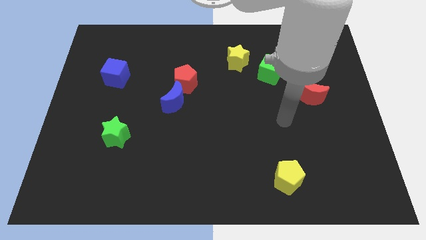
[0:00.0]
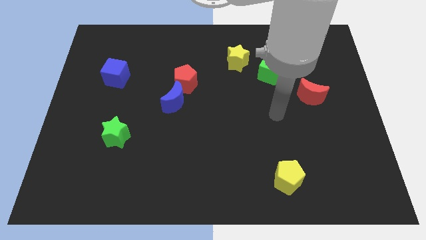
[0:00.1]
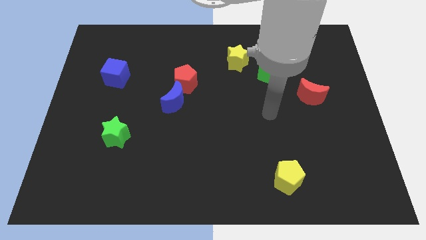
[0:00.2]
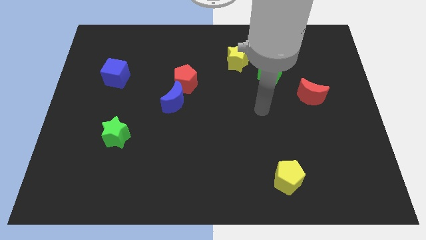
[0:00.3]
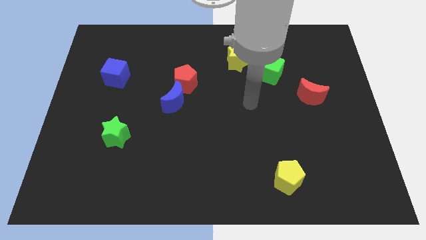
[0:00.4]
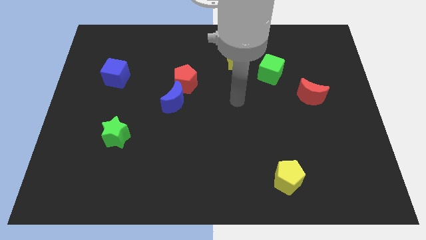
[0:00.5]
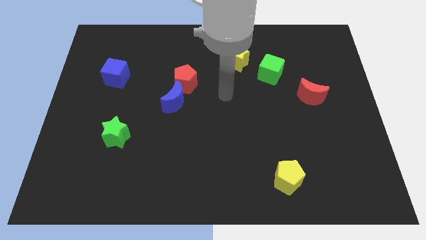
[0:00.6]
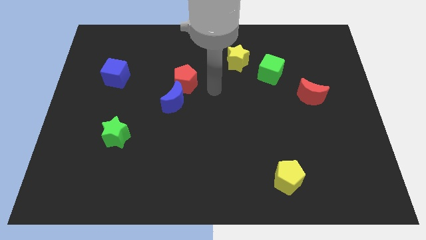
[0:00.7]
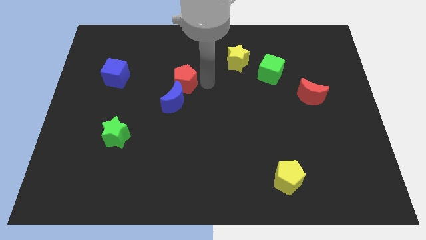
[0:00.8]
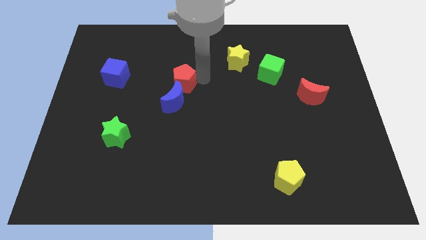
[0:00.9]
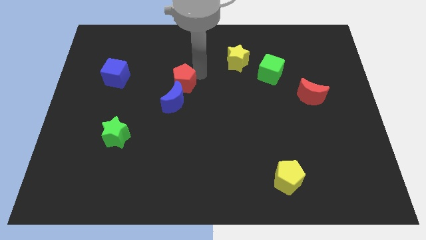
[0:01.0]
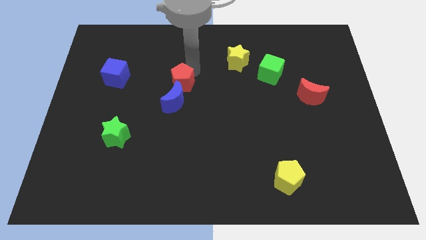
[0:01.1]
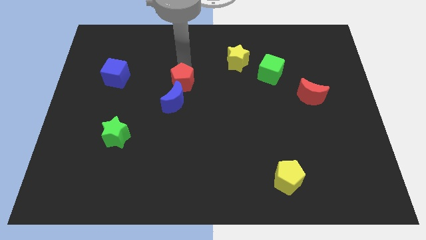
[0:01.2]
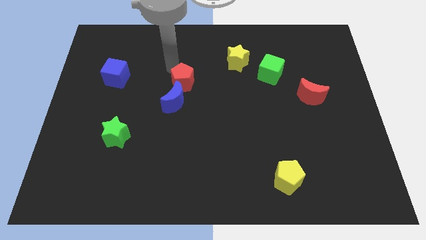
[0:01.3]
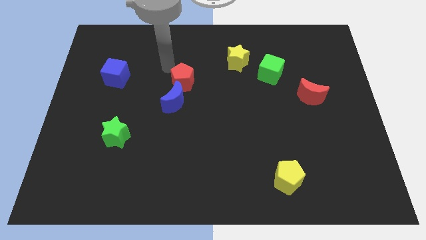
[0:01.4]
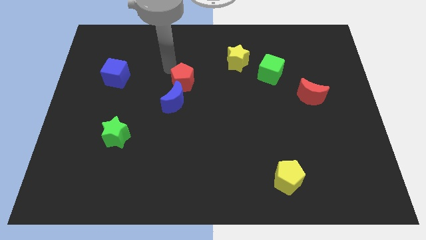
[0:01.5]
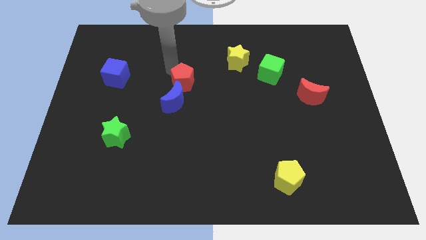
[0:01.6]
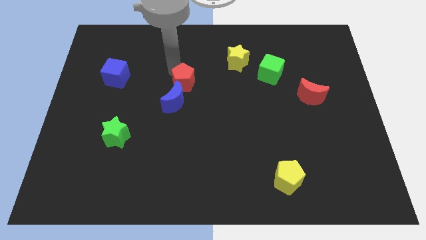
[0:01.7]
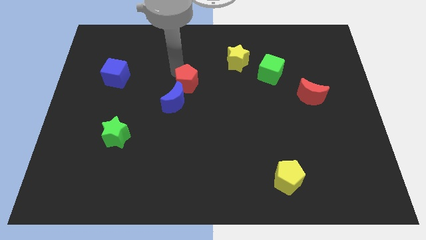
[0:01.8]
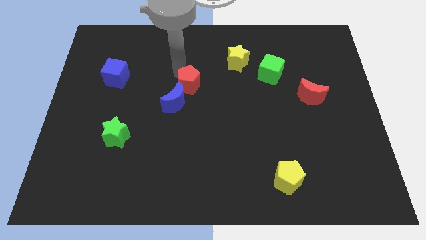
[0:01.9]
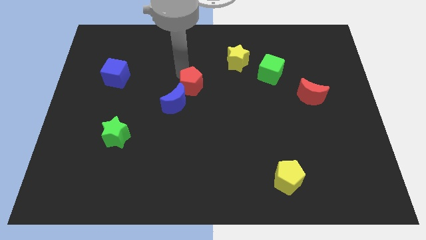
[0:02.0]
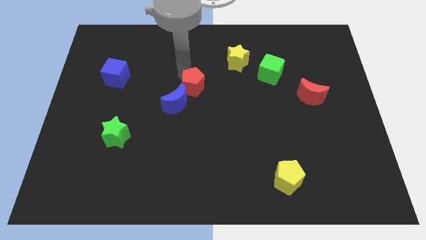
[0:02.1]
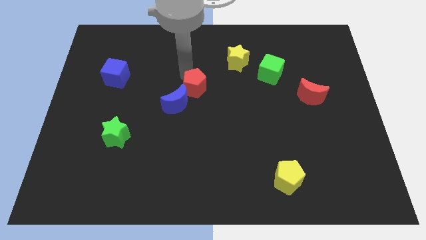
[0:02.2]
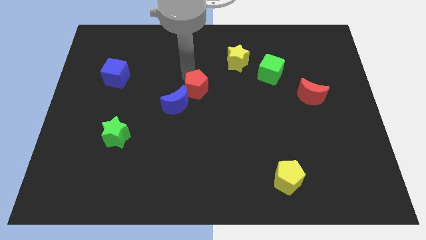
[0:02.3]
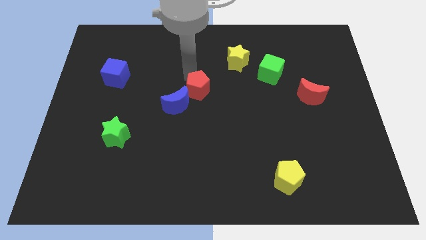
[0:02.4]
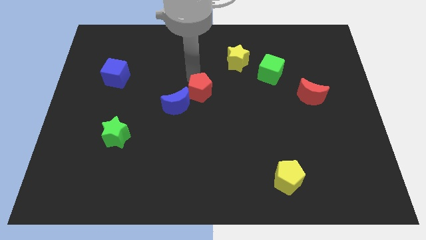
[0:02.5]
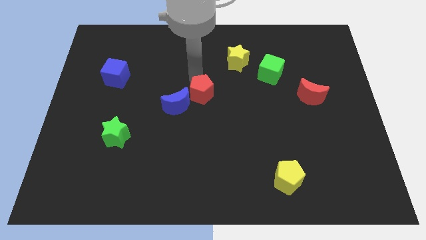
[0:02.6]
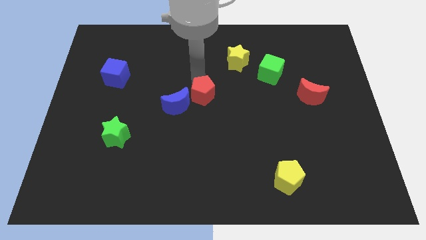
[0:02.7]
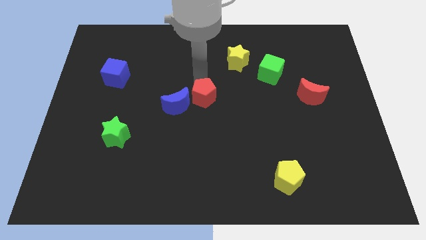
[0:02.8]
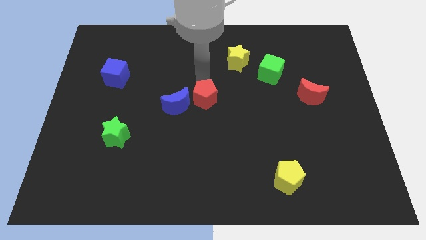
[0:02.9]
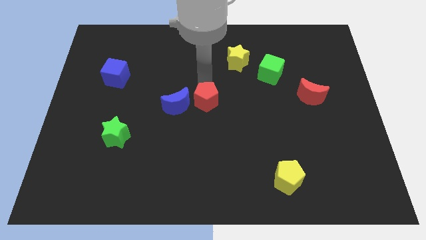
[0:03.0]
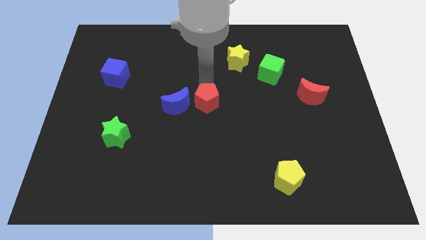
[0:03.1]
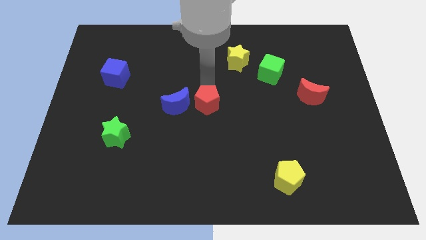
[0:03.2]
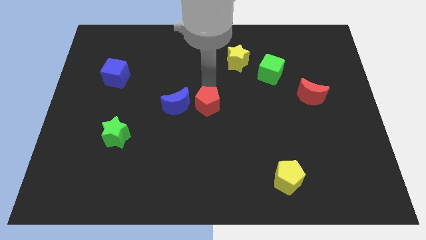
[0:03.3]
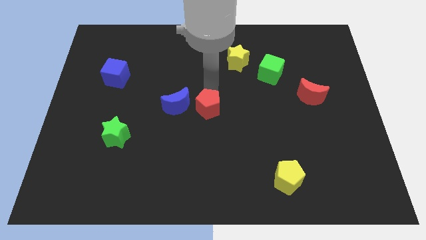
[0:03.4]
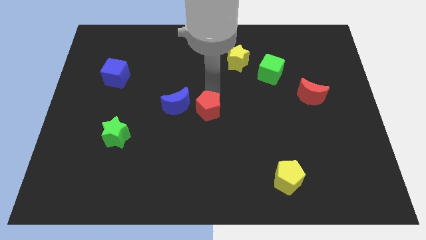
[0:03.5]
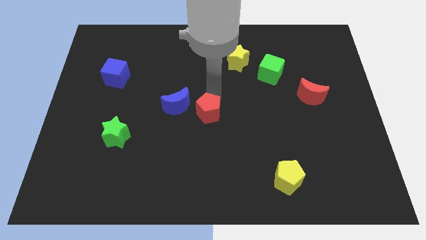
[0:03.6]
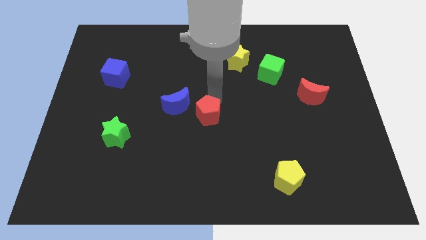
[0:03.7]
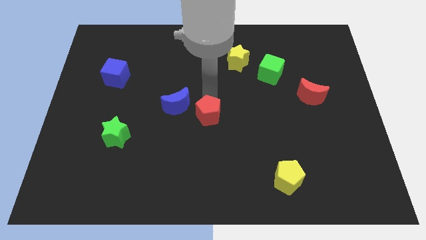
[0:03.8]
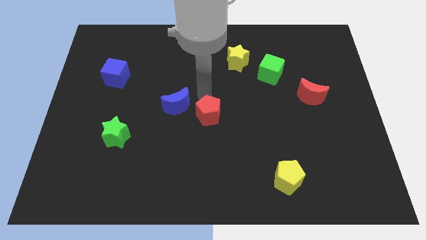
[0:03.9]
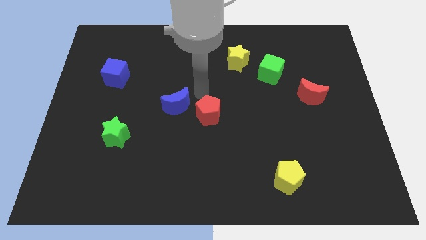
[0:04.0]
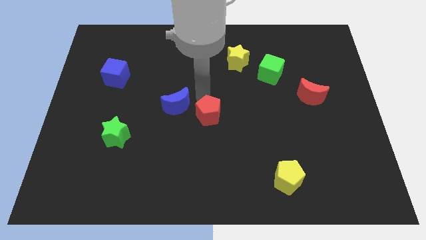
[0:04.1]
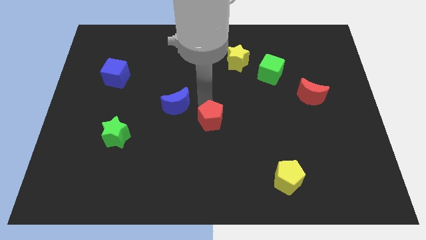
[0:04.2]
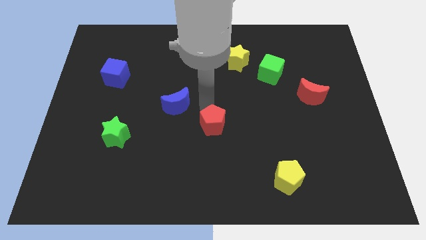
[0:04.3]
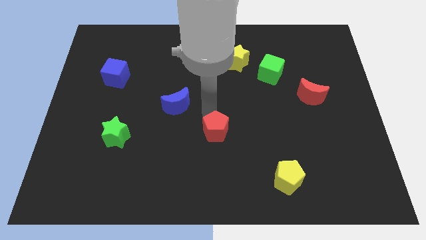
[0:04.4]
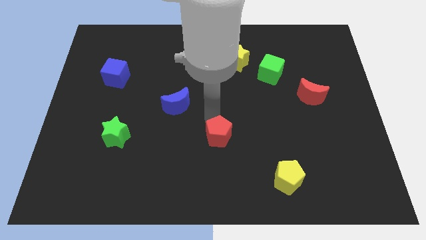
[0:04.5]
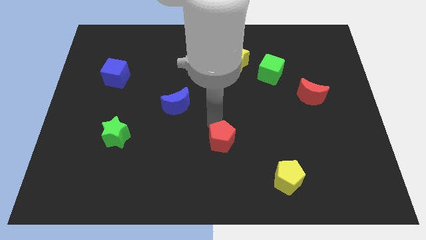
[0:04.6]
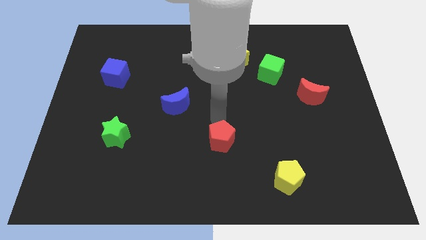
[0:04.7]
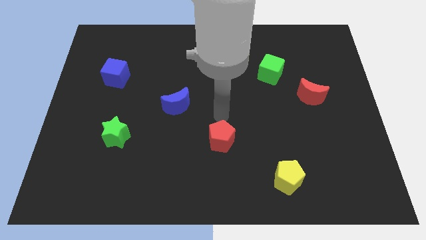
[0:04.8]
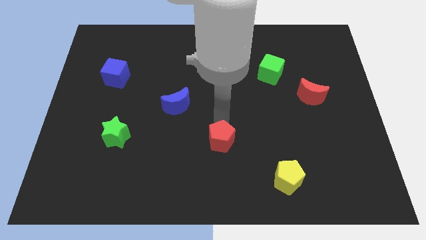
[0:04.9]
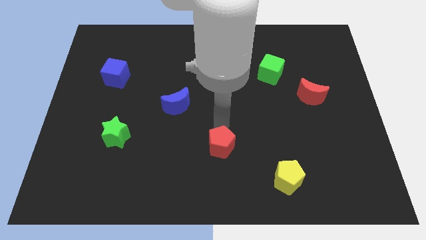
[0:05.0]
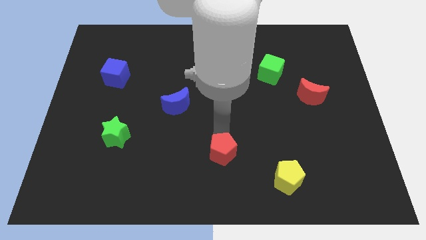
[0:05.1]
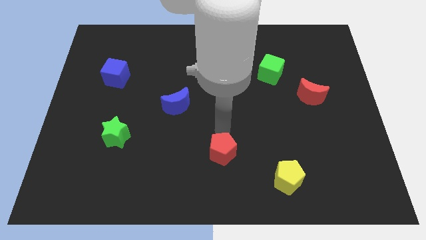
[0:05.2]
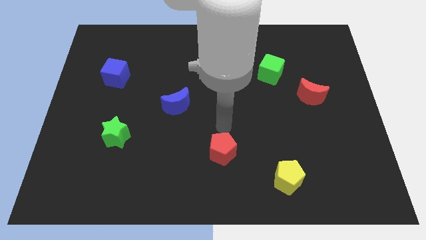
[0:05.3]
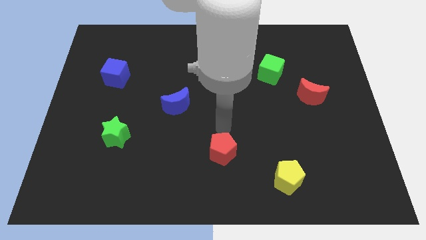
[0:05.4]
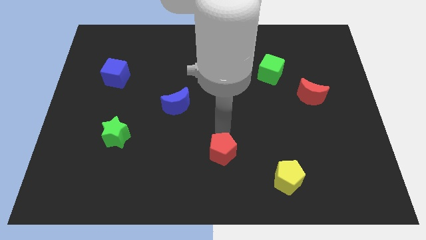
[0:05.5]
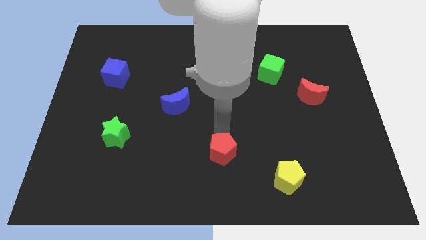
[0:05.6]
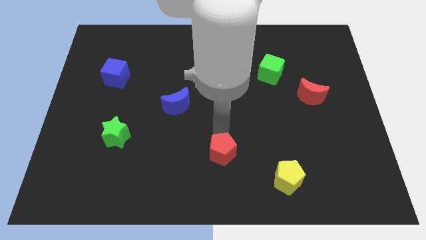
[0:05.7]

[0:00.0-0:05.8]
put the red pentagon to the bottom side
